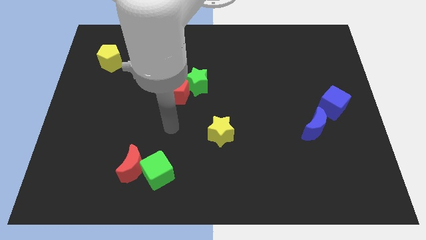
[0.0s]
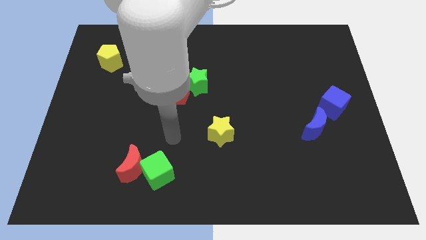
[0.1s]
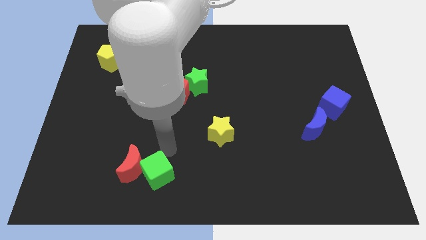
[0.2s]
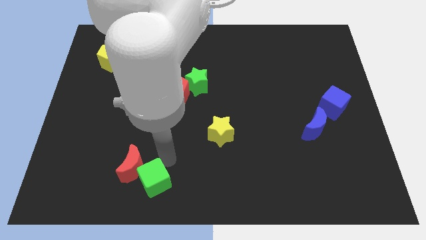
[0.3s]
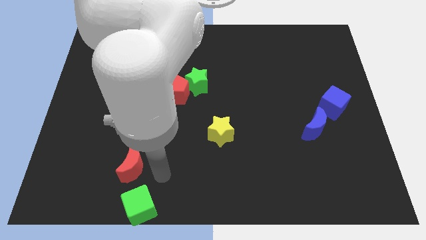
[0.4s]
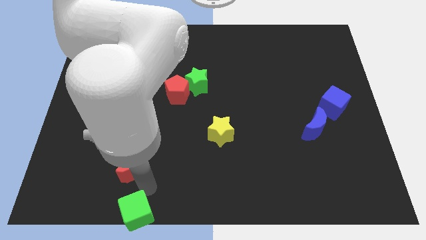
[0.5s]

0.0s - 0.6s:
move the red moon away from the green cube

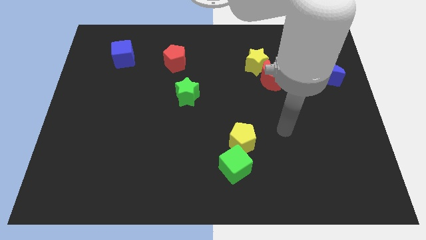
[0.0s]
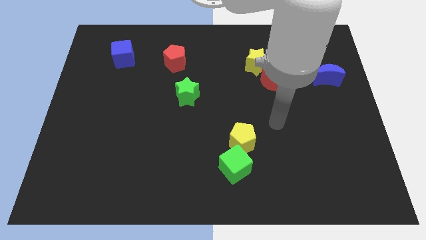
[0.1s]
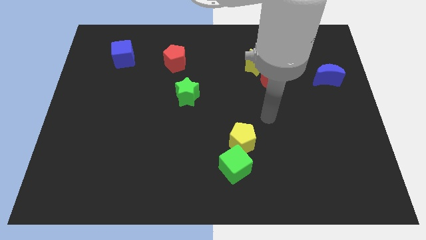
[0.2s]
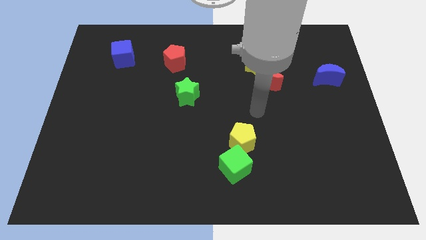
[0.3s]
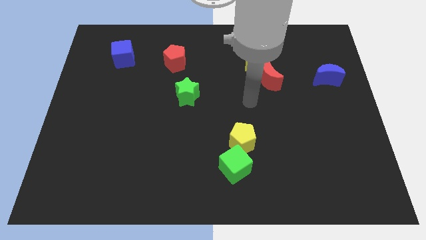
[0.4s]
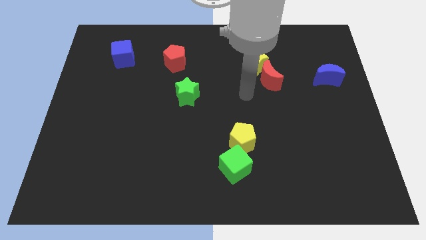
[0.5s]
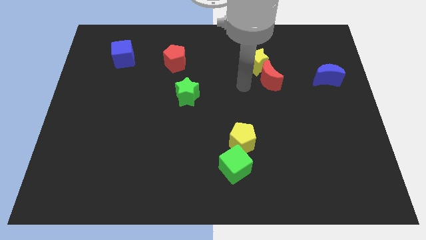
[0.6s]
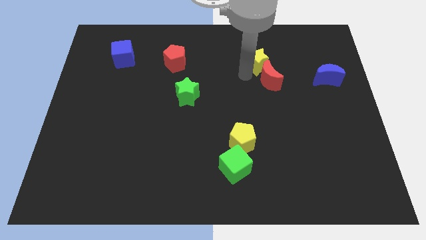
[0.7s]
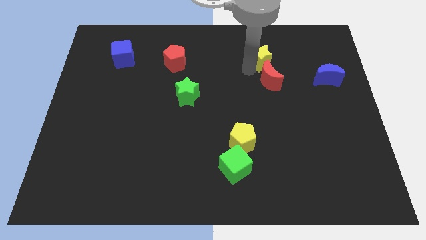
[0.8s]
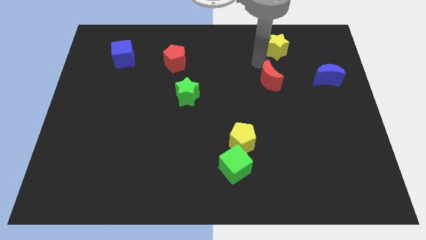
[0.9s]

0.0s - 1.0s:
pull the red moon apart from the yellow star

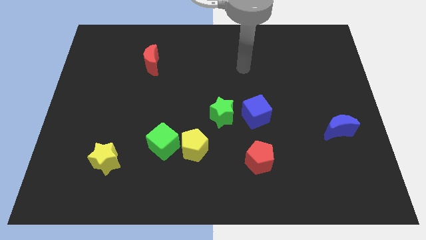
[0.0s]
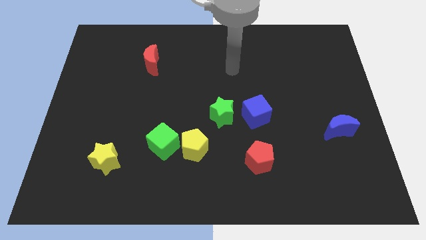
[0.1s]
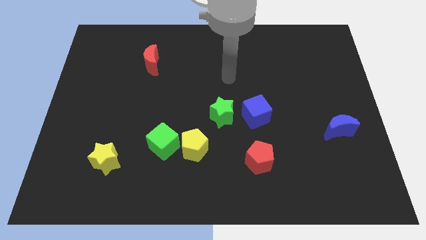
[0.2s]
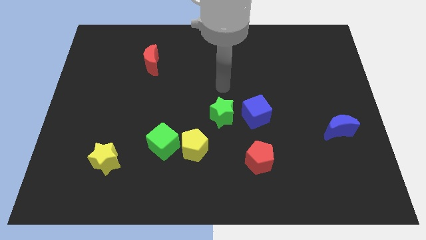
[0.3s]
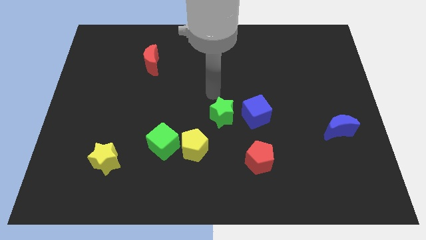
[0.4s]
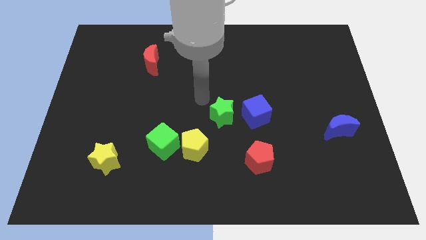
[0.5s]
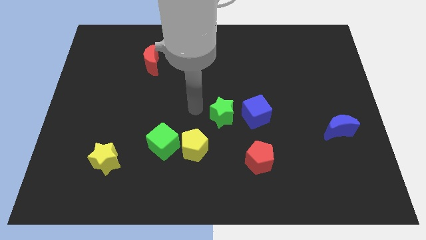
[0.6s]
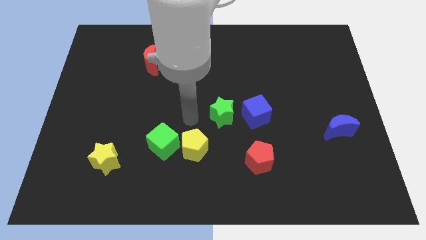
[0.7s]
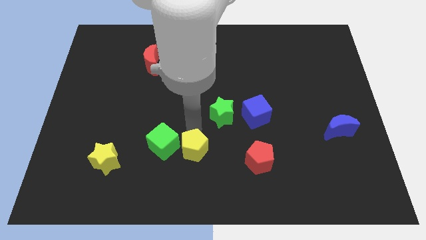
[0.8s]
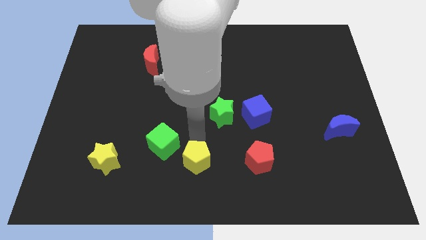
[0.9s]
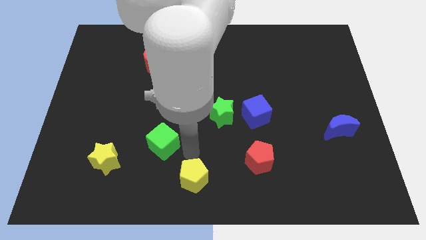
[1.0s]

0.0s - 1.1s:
move the green cube away from the yellow pentagon

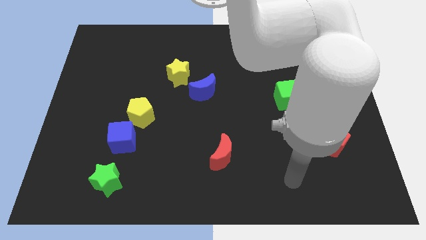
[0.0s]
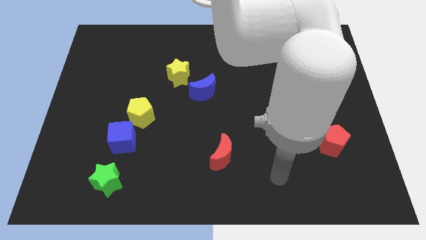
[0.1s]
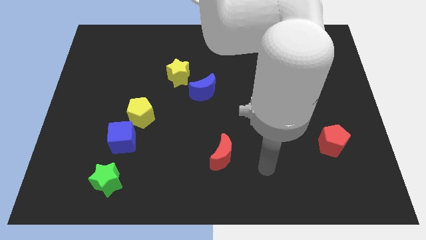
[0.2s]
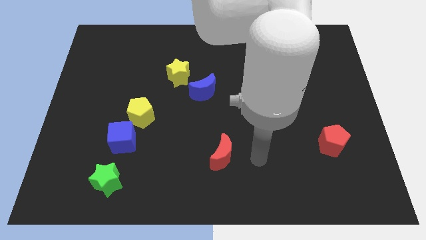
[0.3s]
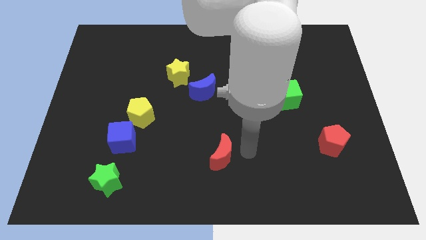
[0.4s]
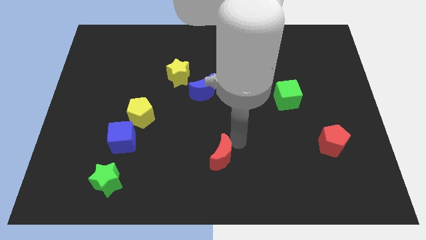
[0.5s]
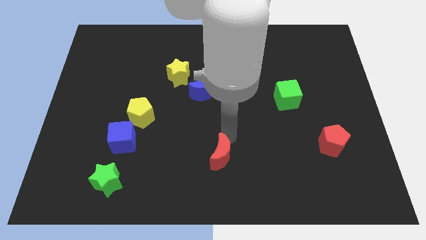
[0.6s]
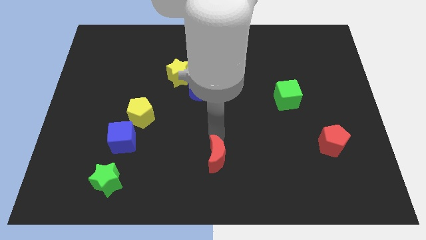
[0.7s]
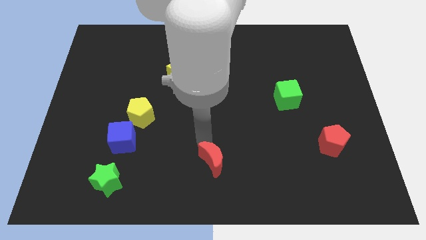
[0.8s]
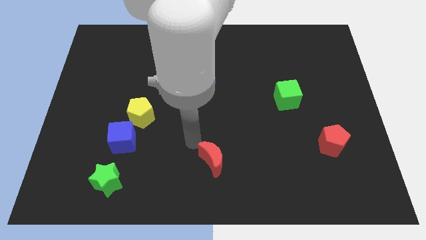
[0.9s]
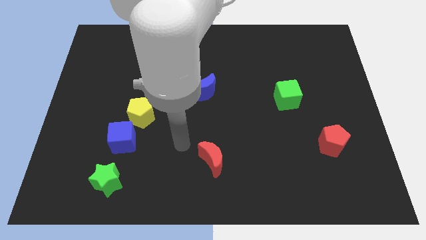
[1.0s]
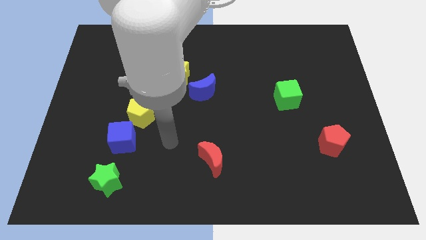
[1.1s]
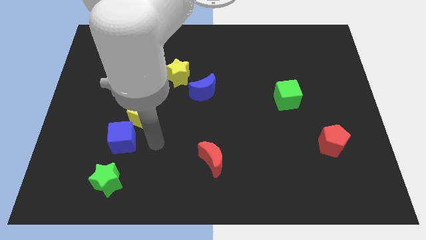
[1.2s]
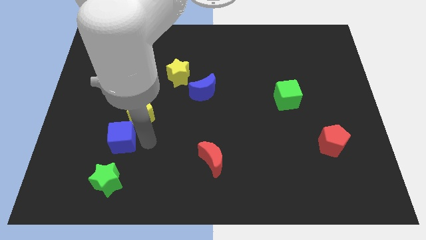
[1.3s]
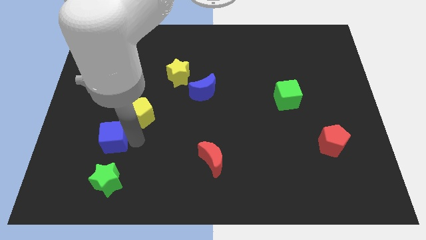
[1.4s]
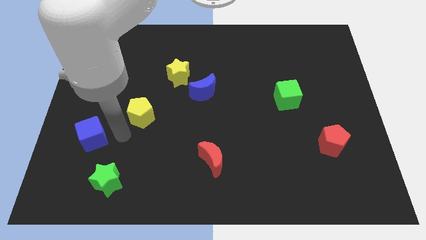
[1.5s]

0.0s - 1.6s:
move the yellow pentagon away from the blue cube

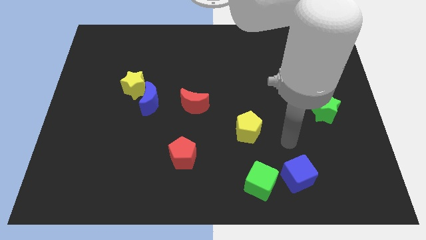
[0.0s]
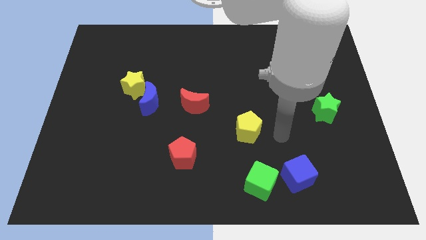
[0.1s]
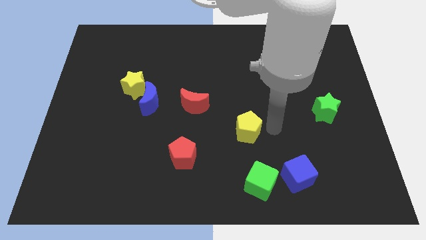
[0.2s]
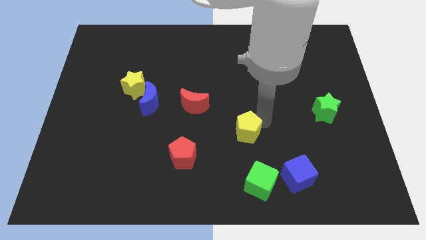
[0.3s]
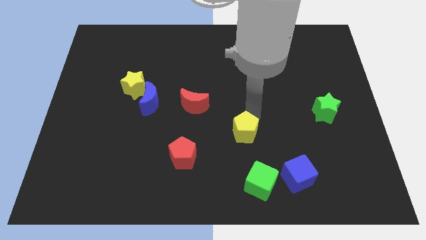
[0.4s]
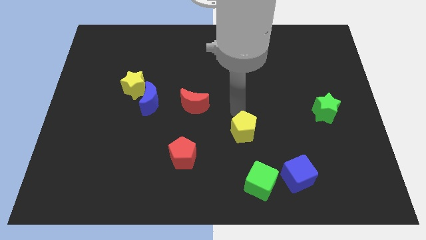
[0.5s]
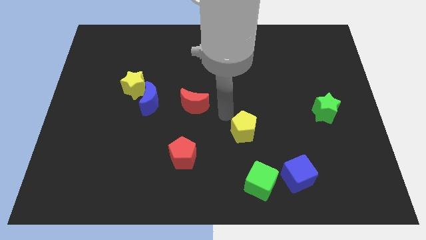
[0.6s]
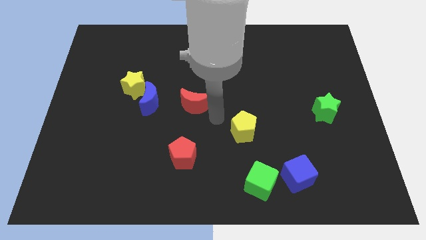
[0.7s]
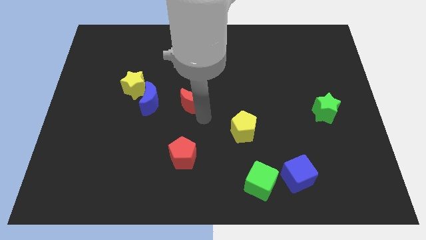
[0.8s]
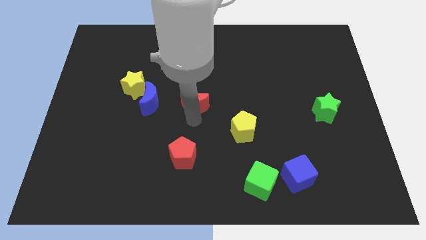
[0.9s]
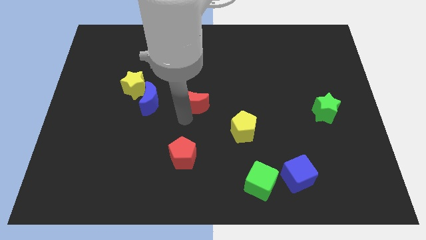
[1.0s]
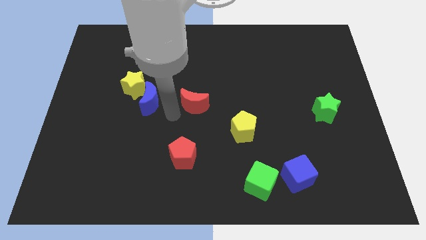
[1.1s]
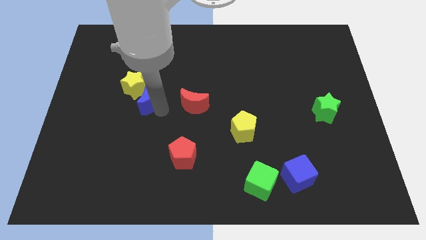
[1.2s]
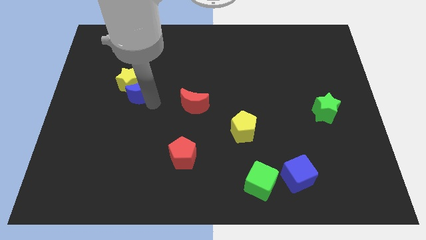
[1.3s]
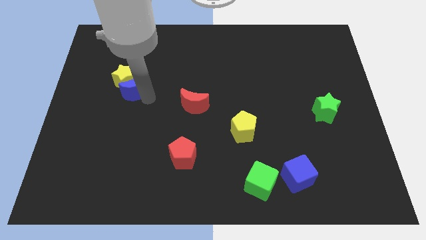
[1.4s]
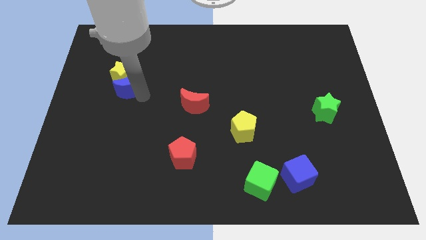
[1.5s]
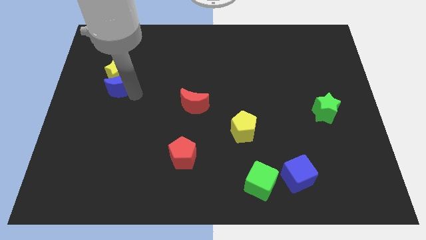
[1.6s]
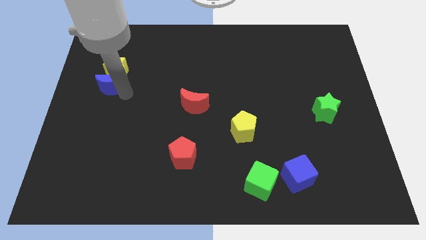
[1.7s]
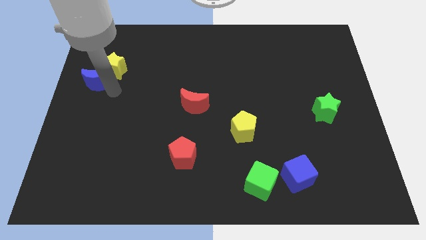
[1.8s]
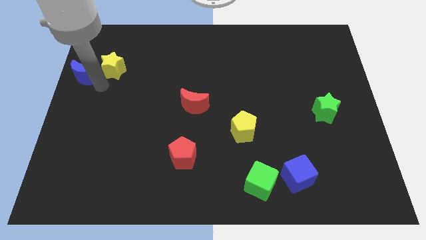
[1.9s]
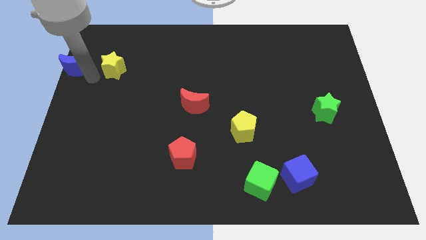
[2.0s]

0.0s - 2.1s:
pull the yellow star apart from the blue moon

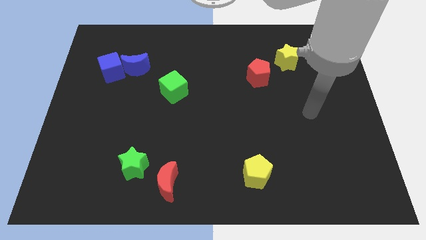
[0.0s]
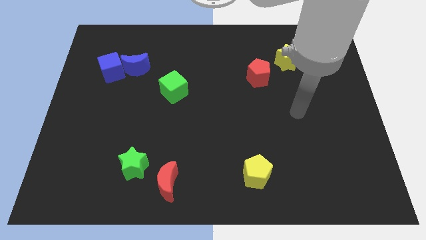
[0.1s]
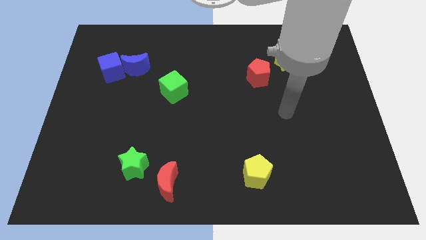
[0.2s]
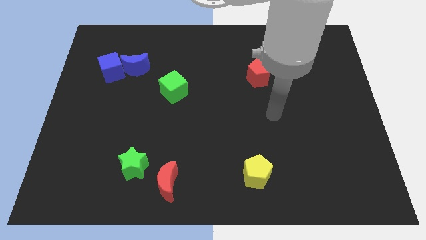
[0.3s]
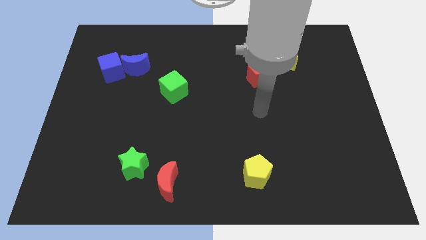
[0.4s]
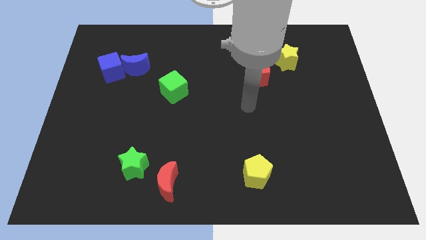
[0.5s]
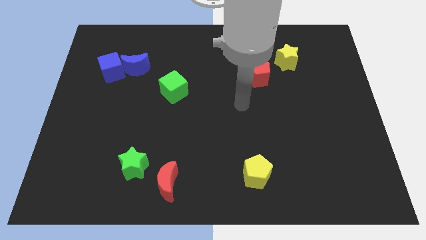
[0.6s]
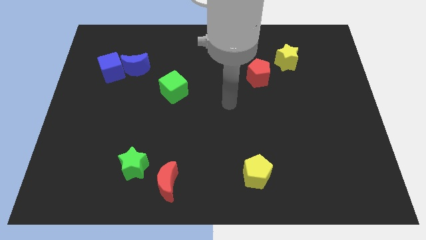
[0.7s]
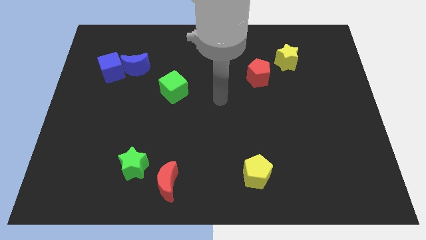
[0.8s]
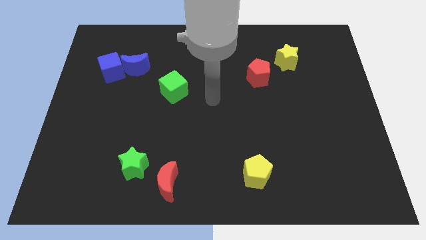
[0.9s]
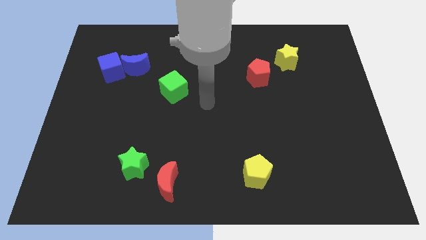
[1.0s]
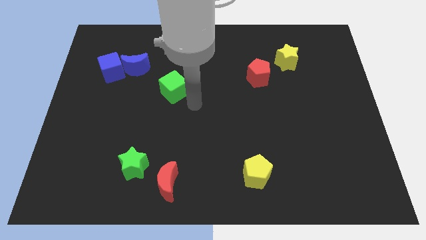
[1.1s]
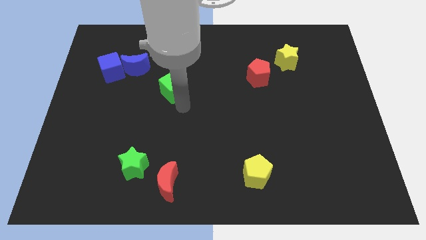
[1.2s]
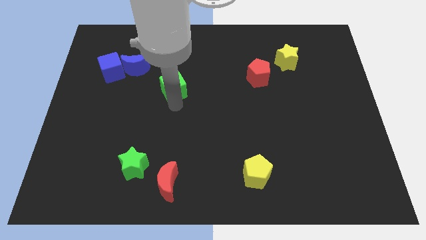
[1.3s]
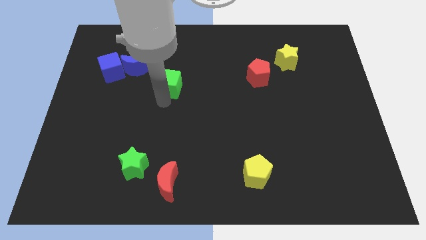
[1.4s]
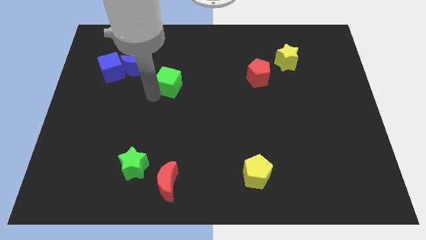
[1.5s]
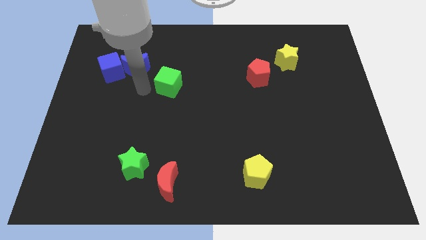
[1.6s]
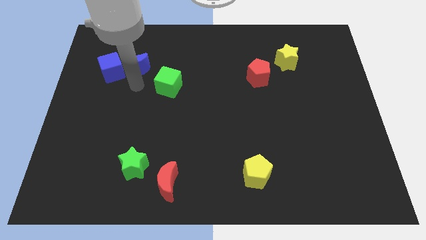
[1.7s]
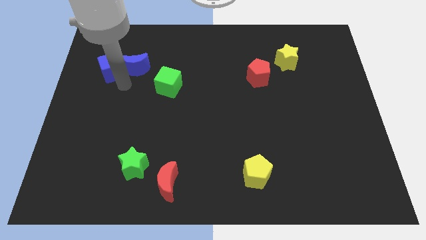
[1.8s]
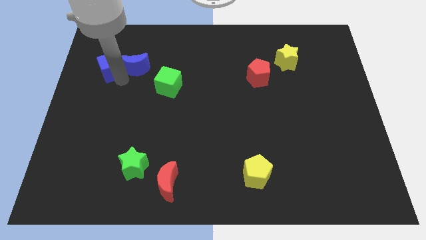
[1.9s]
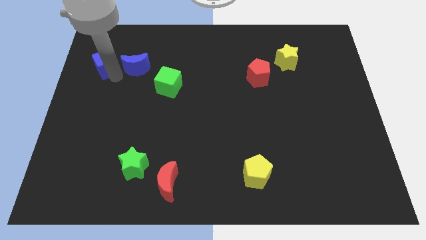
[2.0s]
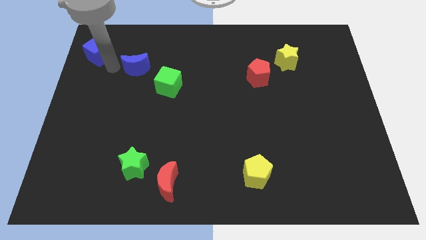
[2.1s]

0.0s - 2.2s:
separate the blue moon from the blue cube

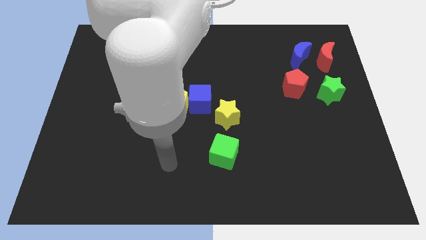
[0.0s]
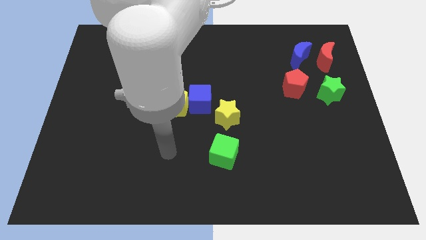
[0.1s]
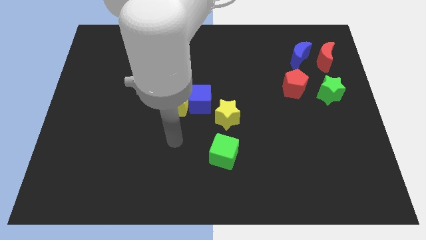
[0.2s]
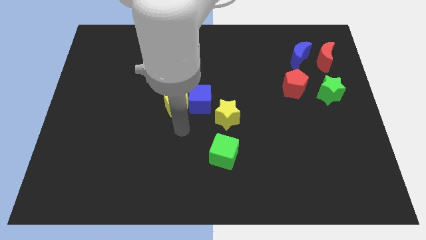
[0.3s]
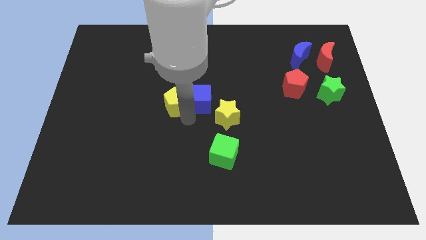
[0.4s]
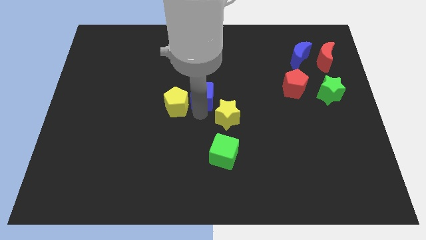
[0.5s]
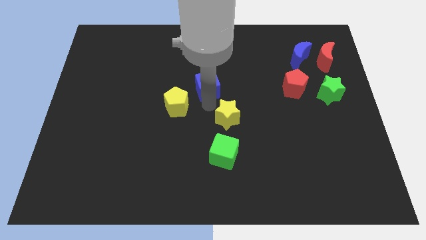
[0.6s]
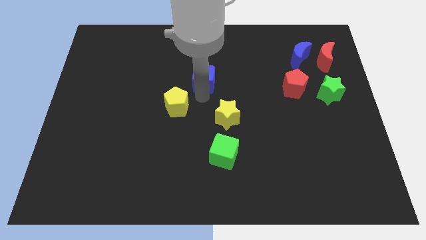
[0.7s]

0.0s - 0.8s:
separate the yellow pentagon from the blue cube
